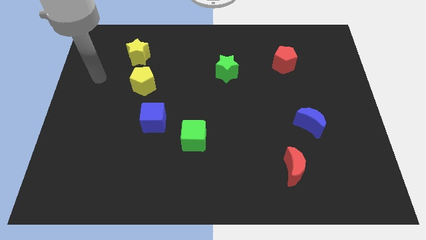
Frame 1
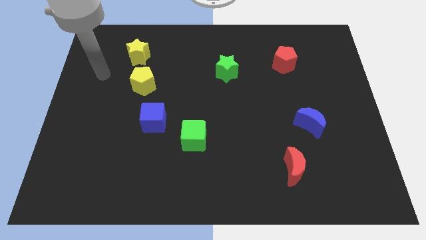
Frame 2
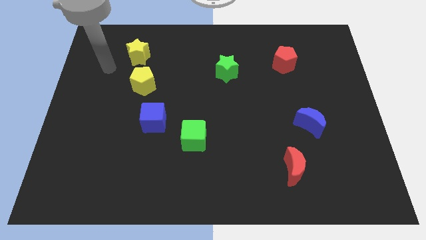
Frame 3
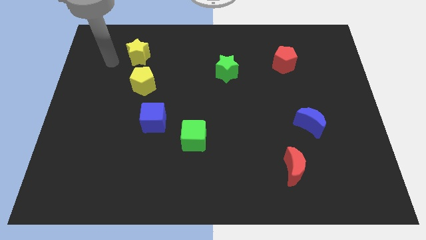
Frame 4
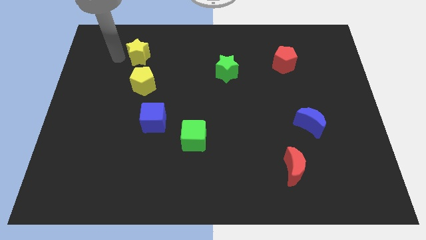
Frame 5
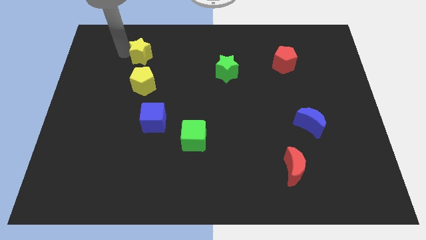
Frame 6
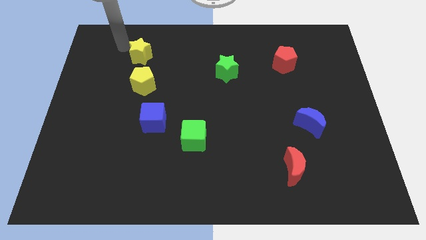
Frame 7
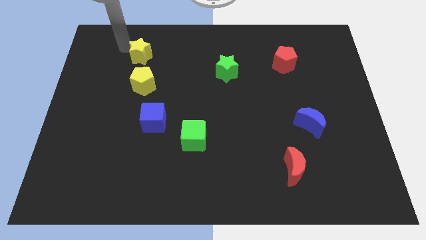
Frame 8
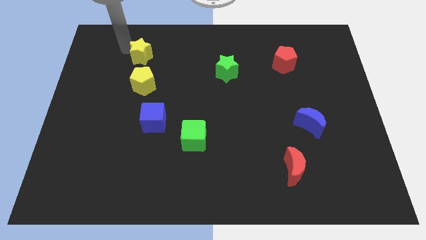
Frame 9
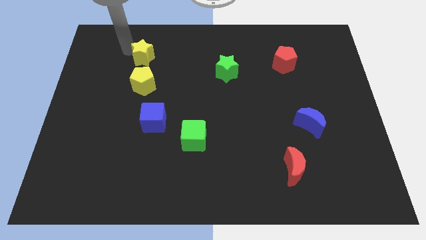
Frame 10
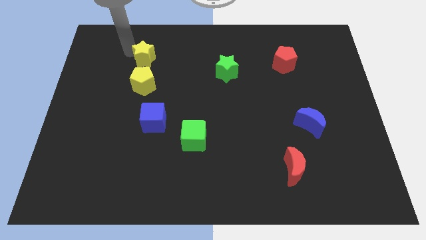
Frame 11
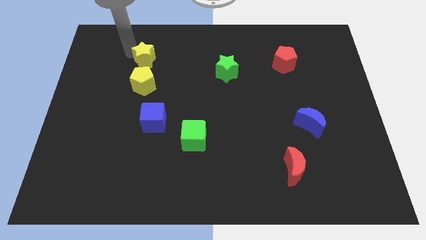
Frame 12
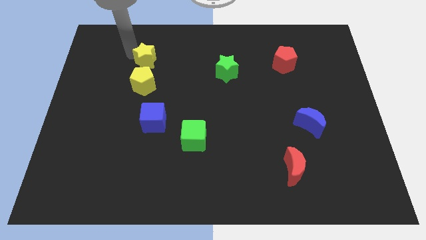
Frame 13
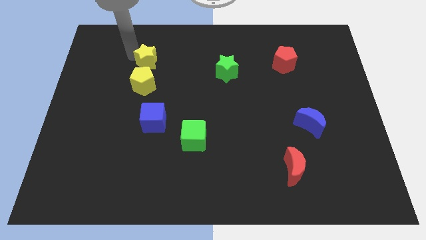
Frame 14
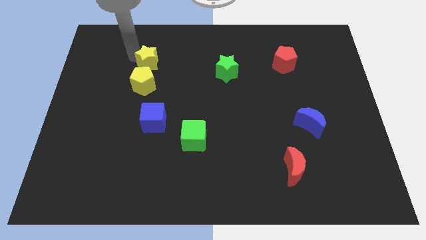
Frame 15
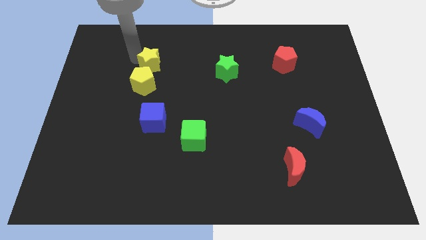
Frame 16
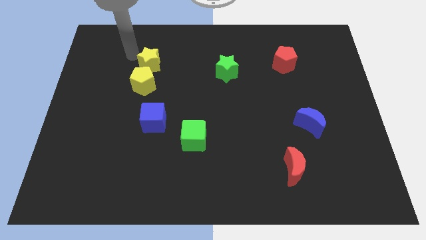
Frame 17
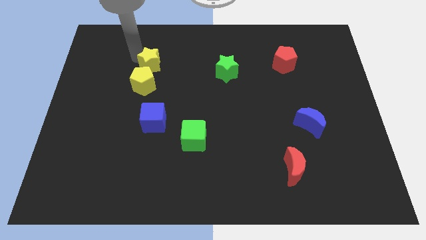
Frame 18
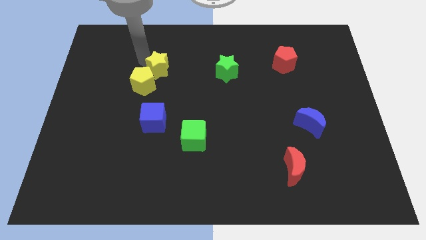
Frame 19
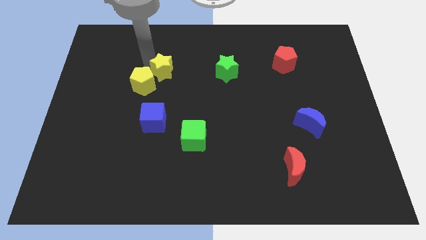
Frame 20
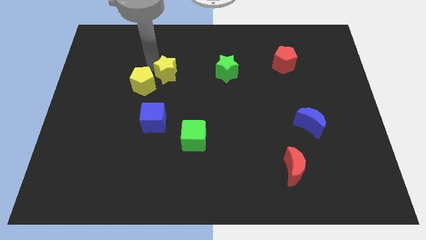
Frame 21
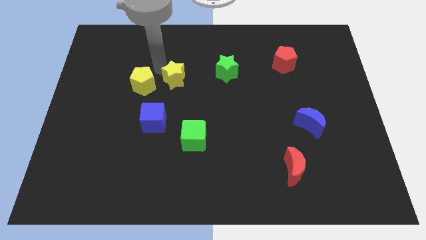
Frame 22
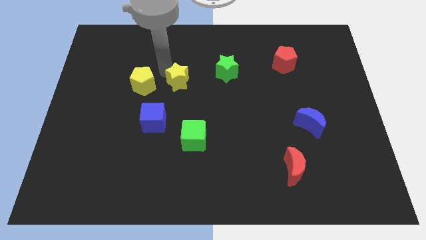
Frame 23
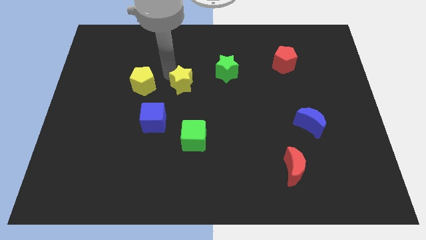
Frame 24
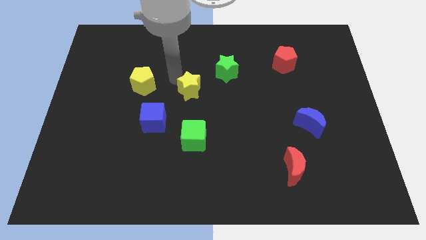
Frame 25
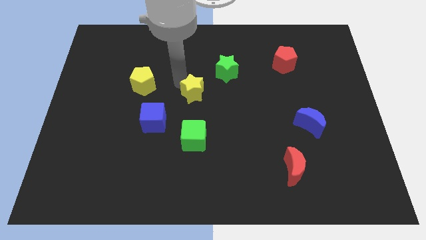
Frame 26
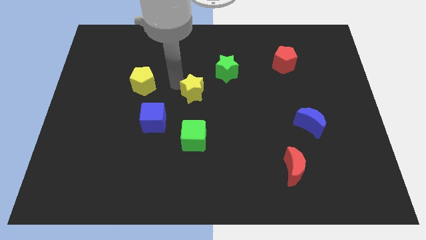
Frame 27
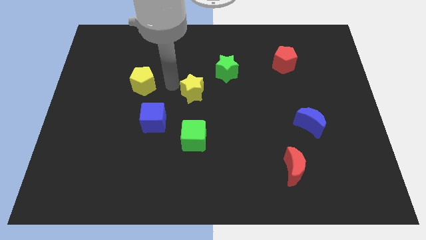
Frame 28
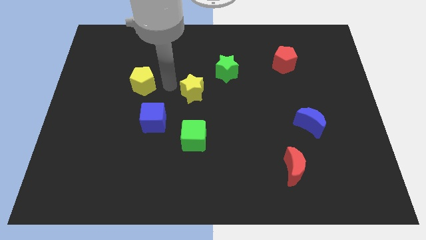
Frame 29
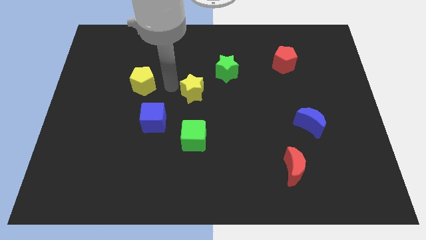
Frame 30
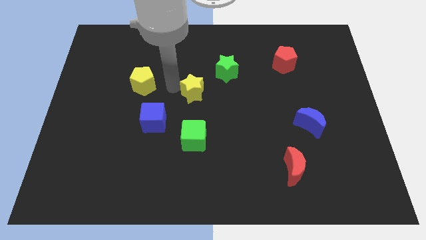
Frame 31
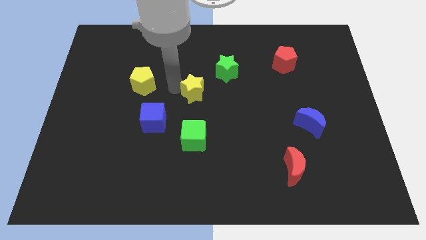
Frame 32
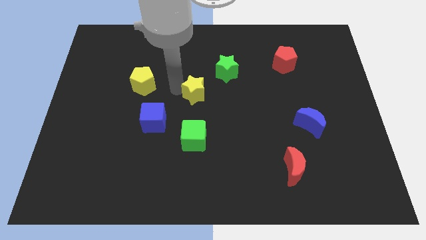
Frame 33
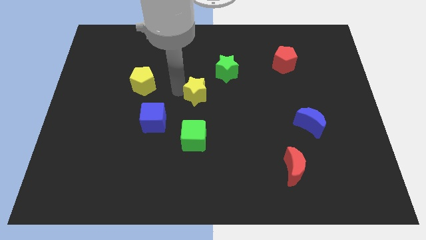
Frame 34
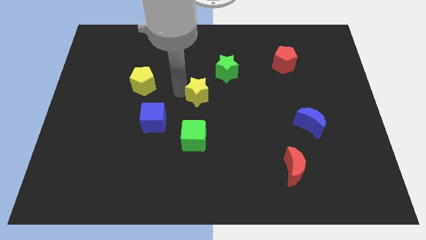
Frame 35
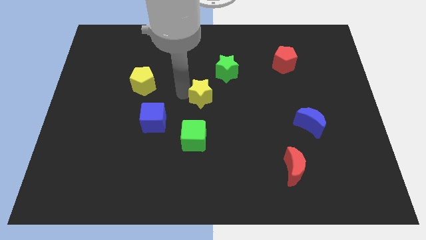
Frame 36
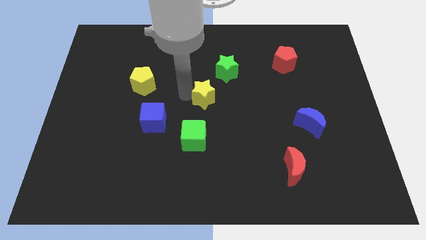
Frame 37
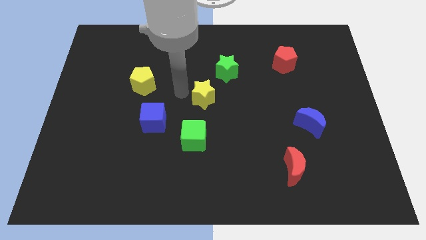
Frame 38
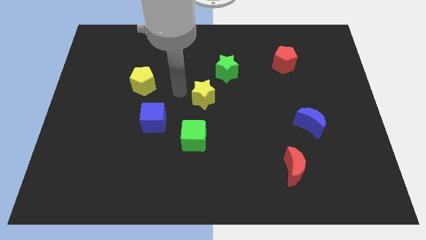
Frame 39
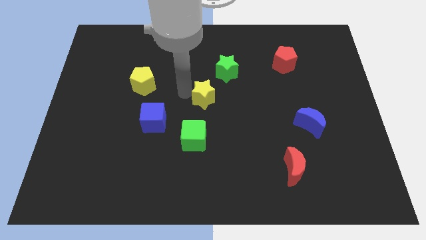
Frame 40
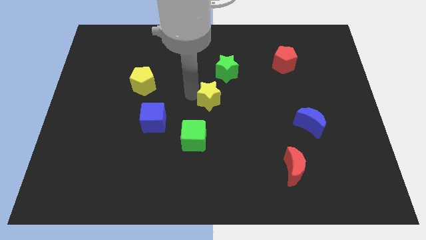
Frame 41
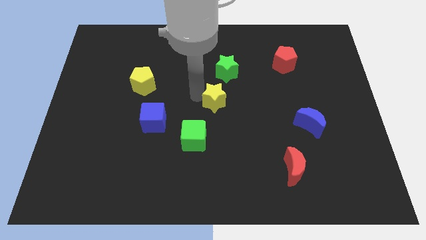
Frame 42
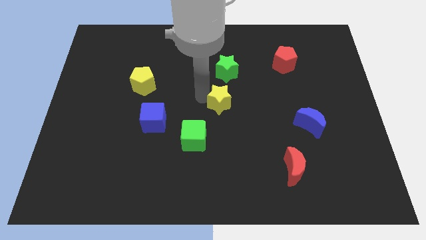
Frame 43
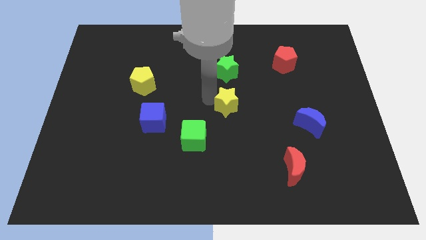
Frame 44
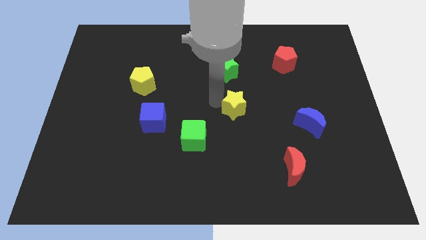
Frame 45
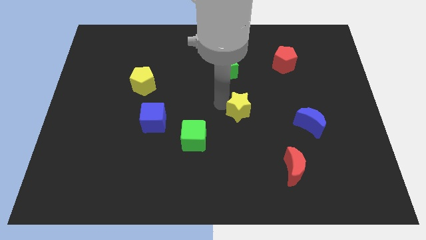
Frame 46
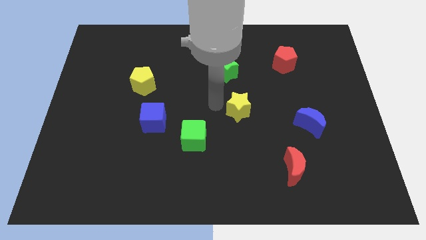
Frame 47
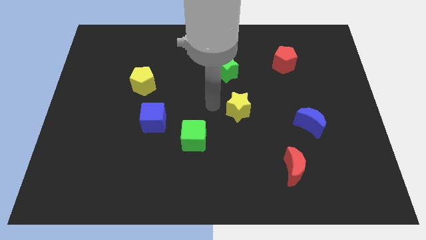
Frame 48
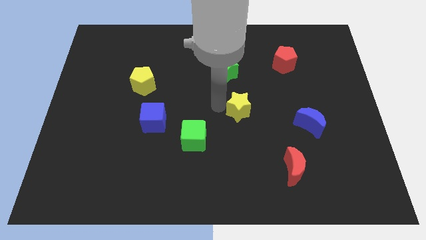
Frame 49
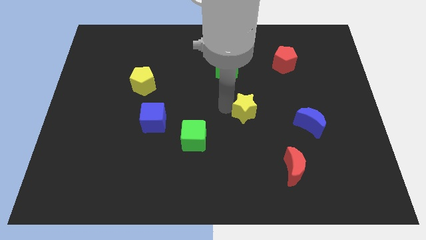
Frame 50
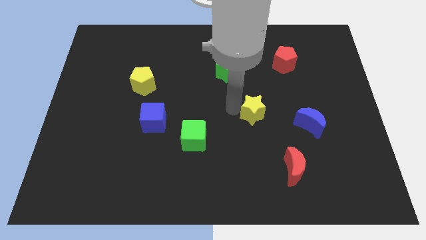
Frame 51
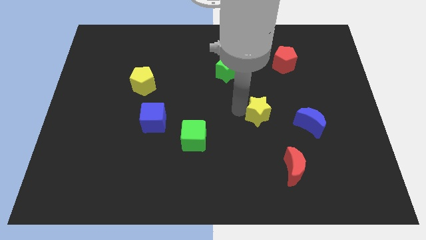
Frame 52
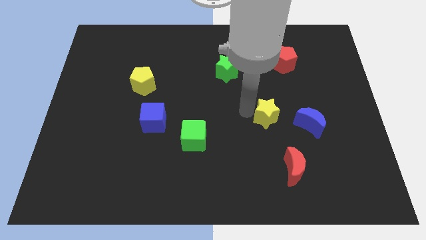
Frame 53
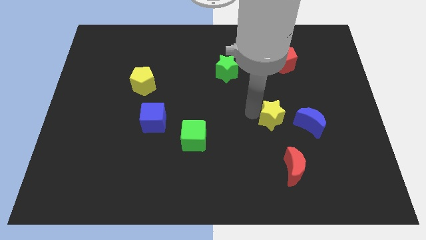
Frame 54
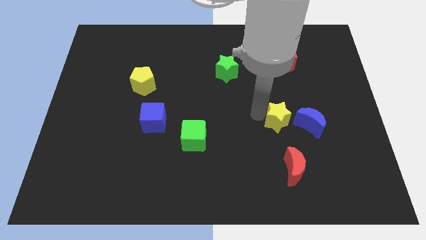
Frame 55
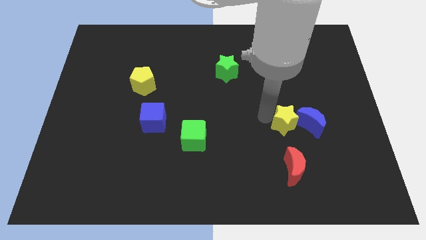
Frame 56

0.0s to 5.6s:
move the yellow star to the blue moon

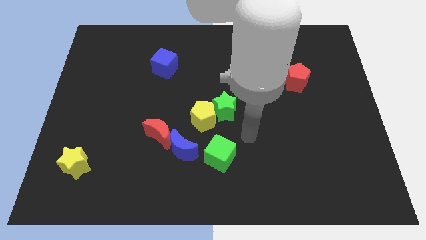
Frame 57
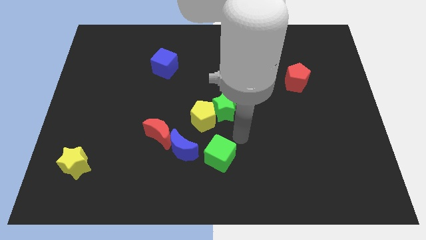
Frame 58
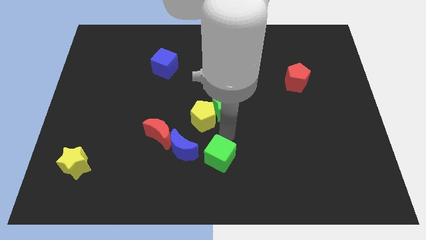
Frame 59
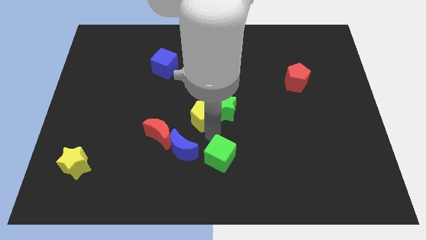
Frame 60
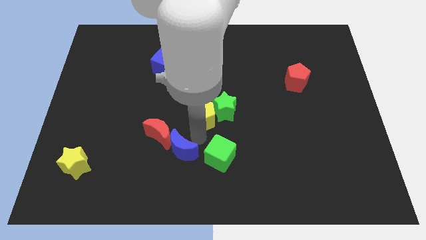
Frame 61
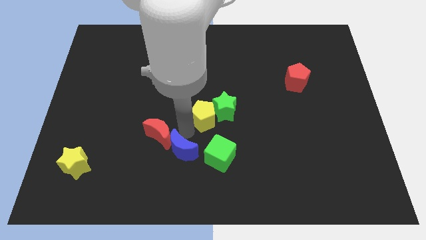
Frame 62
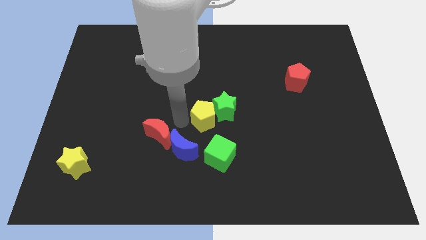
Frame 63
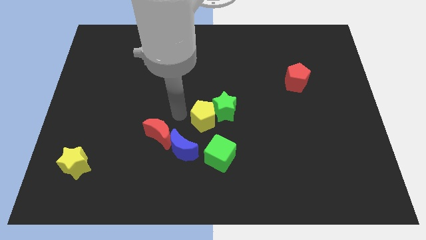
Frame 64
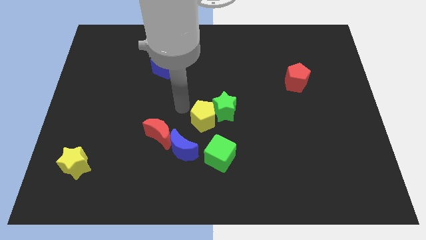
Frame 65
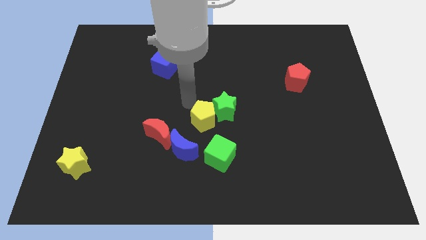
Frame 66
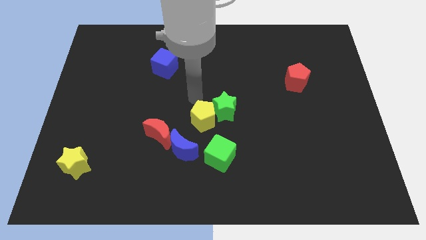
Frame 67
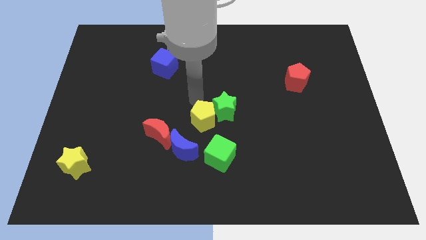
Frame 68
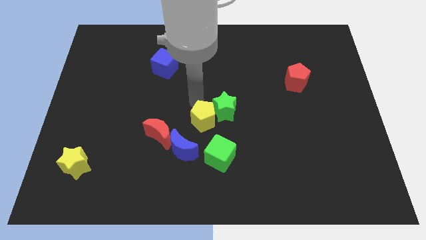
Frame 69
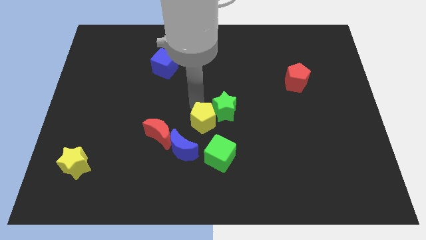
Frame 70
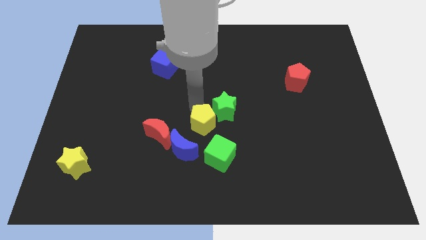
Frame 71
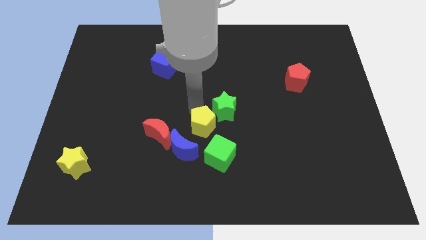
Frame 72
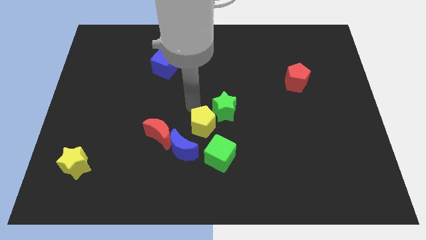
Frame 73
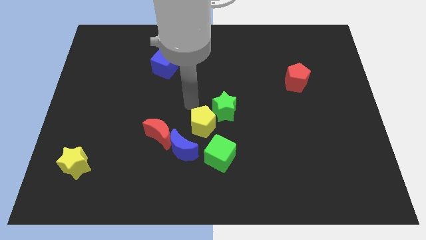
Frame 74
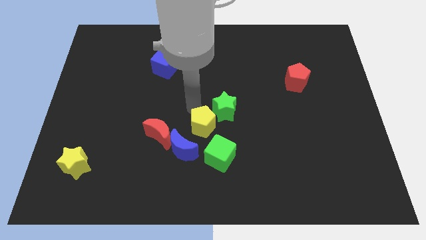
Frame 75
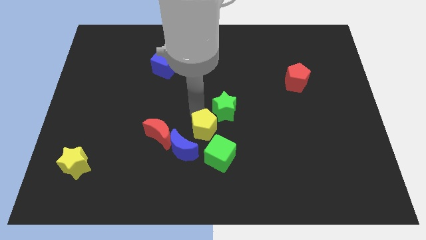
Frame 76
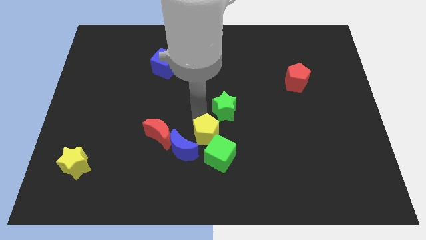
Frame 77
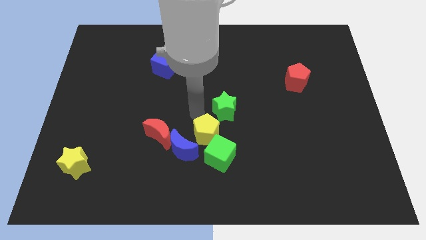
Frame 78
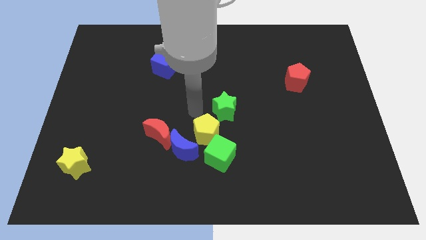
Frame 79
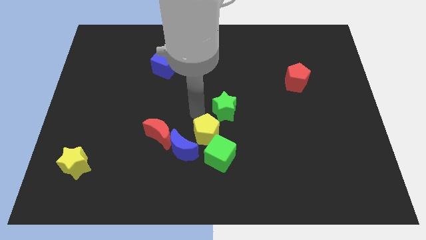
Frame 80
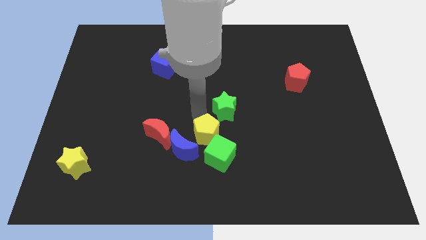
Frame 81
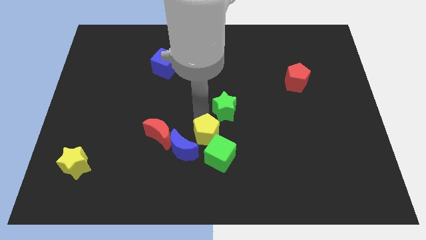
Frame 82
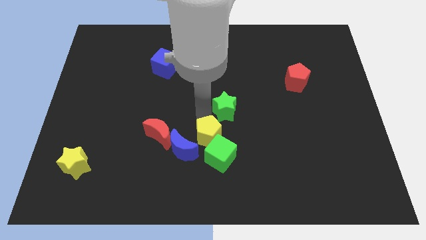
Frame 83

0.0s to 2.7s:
slide the yellow pentagon next to the green cube
